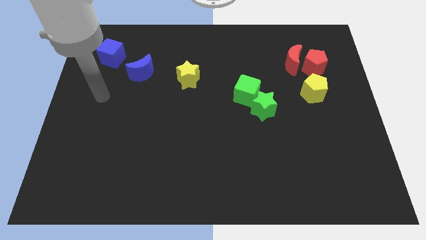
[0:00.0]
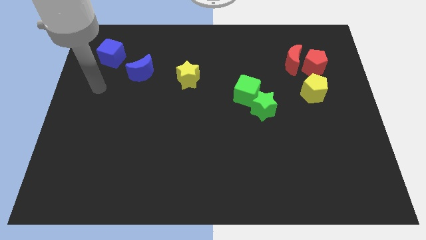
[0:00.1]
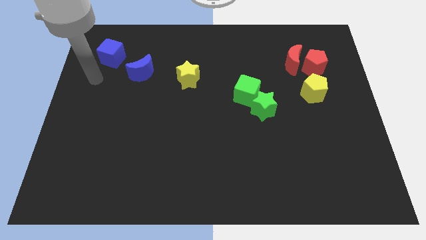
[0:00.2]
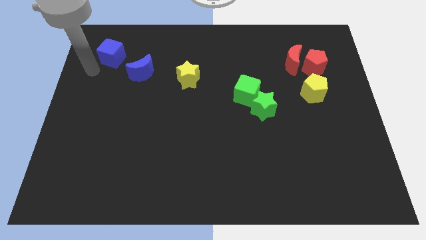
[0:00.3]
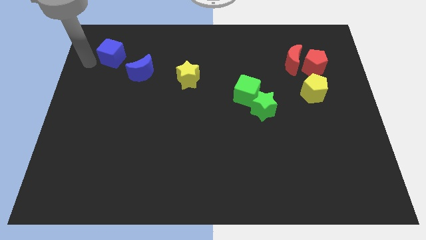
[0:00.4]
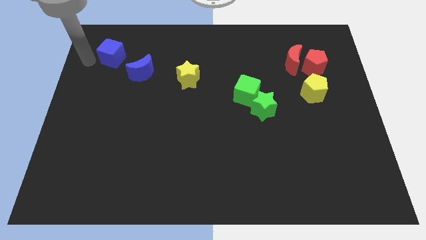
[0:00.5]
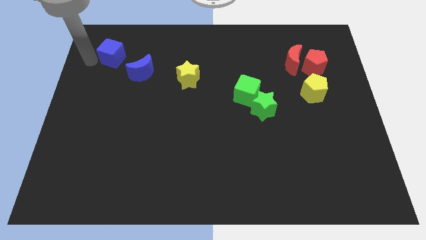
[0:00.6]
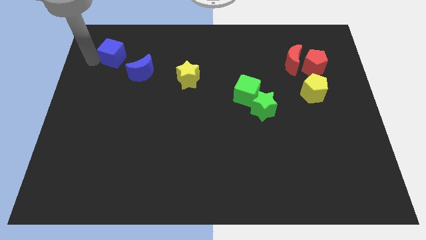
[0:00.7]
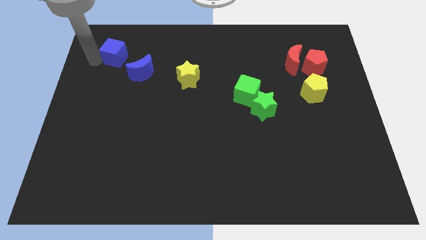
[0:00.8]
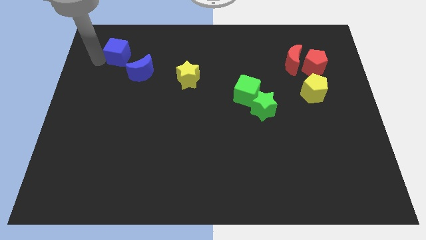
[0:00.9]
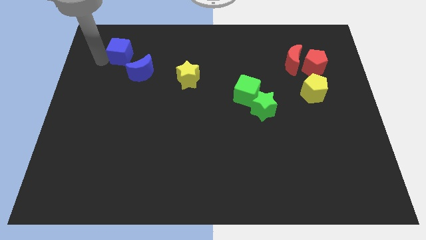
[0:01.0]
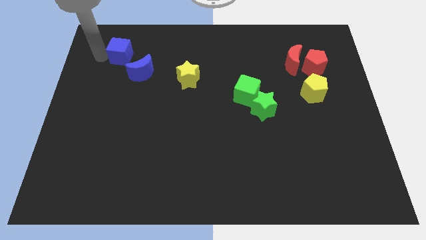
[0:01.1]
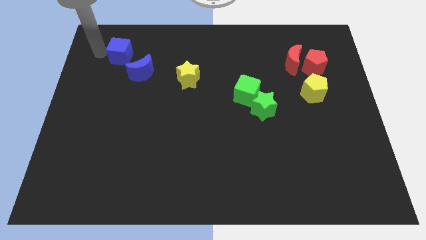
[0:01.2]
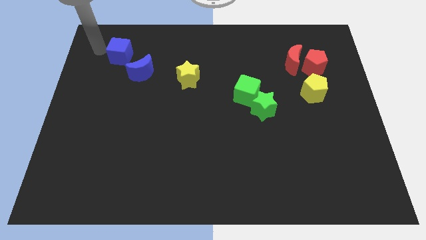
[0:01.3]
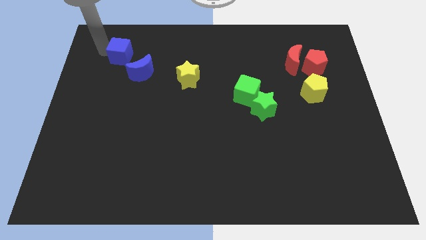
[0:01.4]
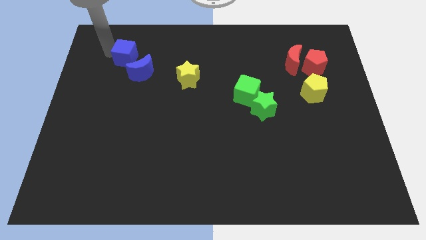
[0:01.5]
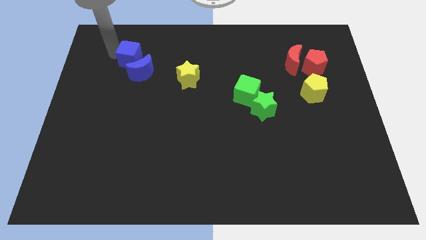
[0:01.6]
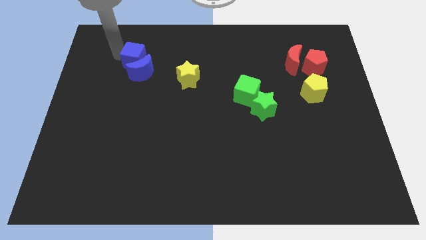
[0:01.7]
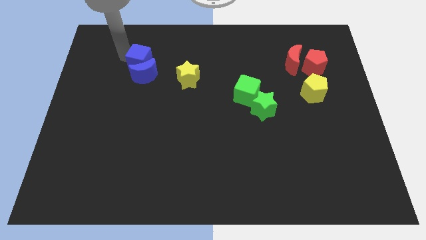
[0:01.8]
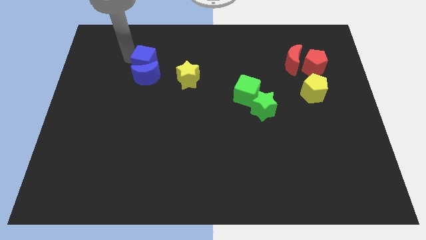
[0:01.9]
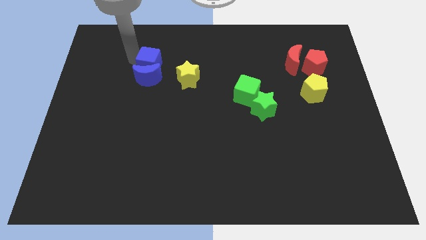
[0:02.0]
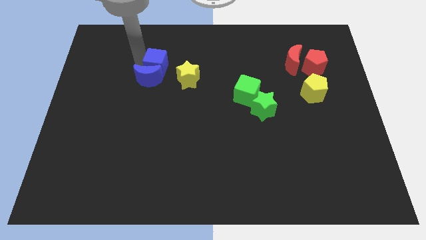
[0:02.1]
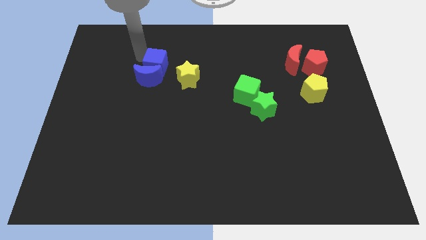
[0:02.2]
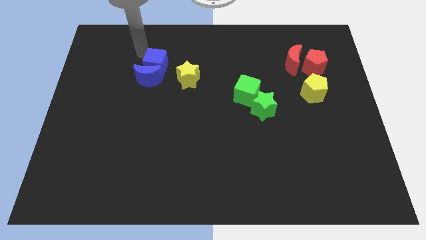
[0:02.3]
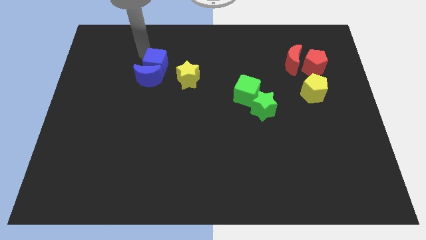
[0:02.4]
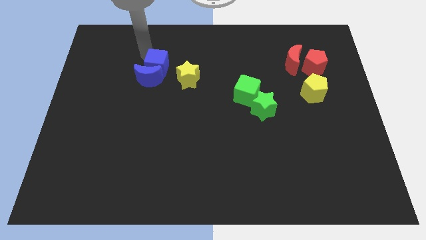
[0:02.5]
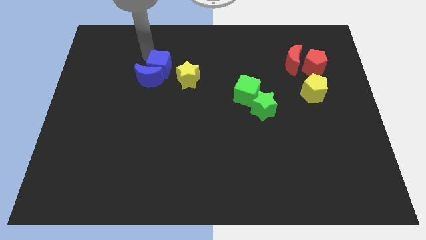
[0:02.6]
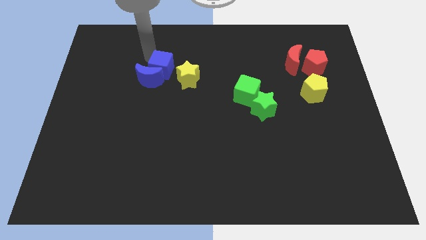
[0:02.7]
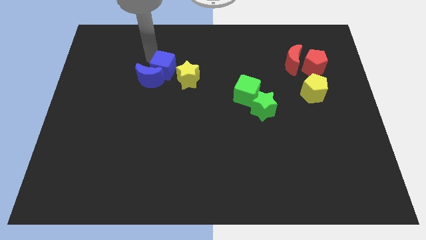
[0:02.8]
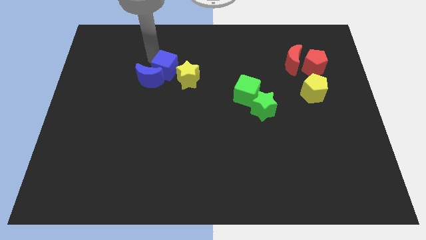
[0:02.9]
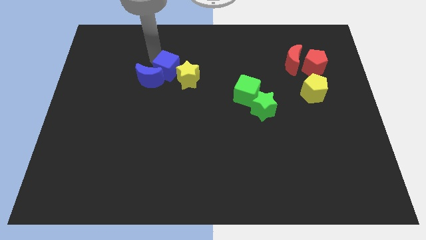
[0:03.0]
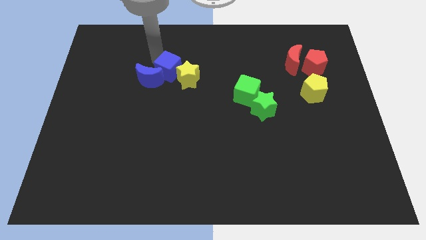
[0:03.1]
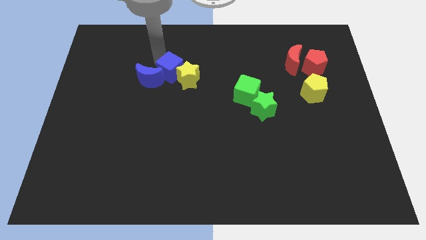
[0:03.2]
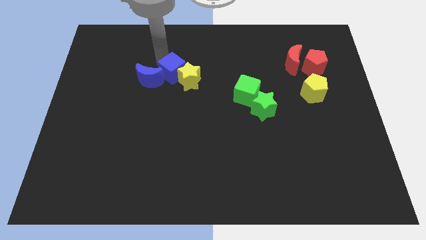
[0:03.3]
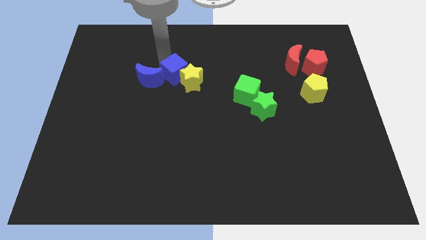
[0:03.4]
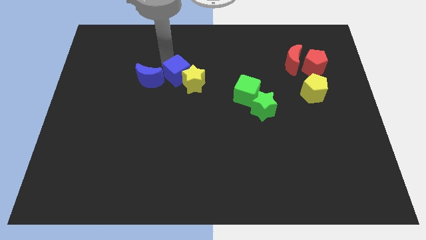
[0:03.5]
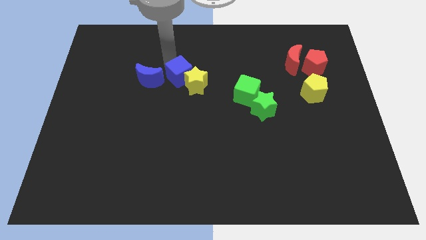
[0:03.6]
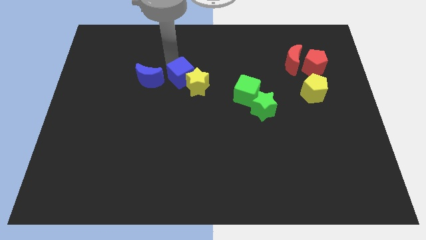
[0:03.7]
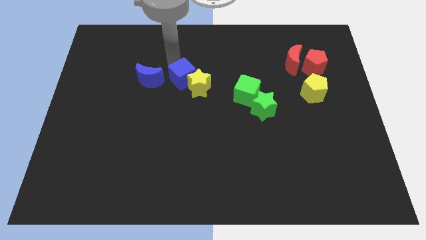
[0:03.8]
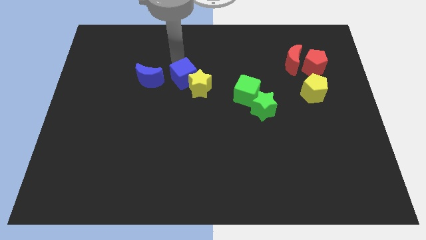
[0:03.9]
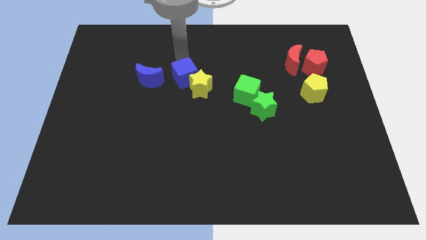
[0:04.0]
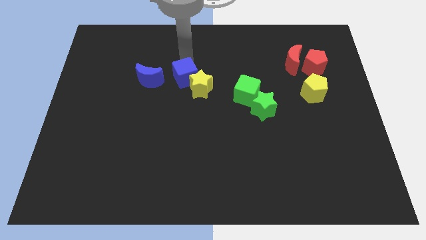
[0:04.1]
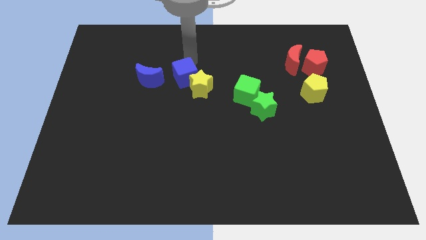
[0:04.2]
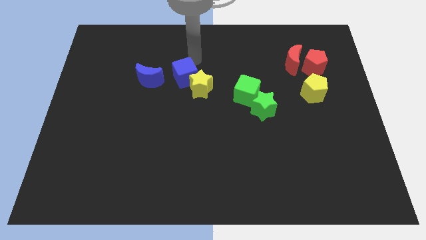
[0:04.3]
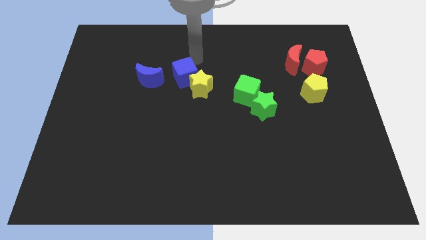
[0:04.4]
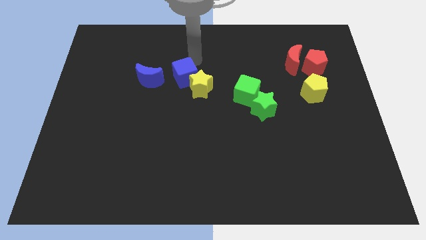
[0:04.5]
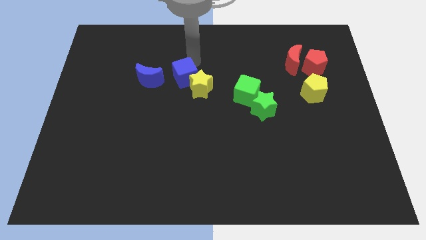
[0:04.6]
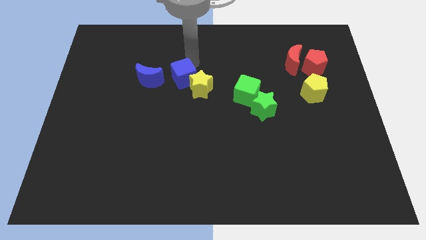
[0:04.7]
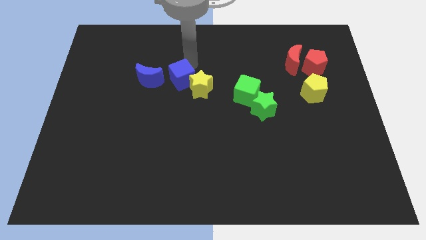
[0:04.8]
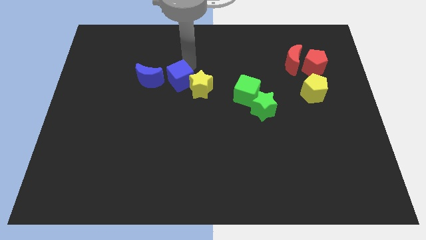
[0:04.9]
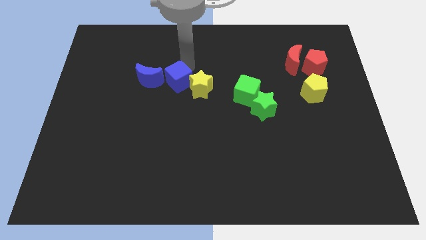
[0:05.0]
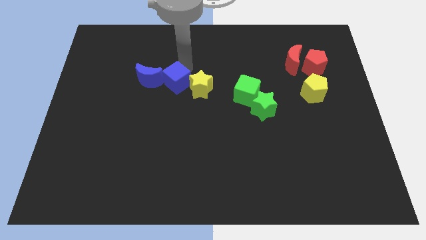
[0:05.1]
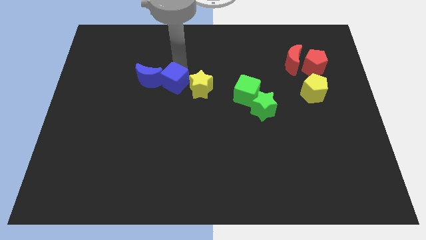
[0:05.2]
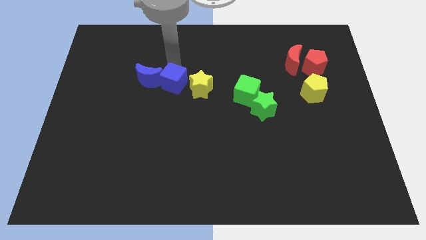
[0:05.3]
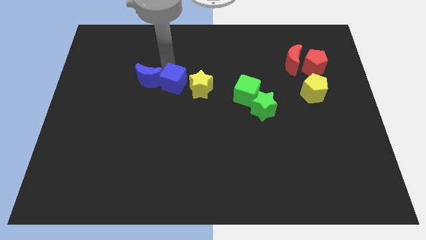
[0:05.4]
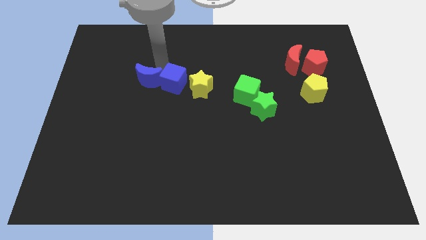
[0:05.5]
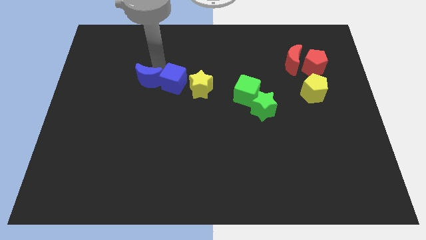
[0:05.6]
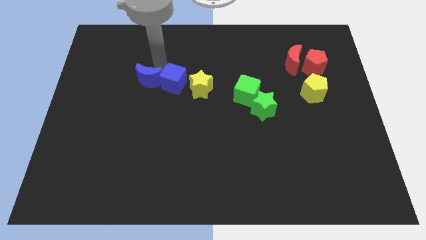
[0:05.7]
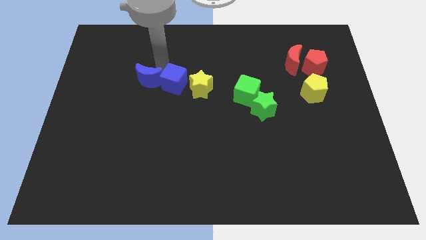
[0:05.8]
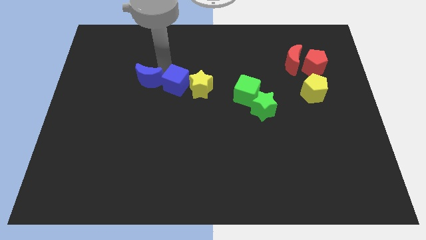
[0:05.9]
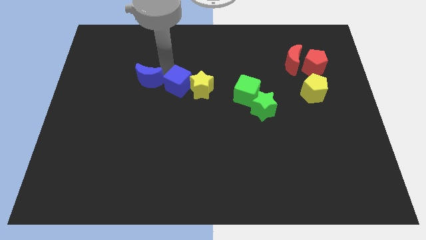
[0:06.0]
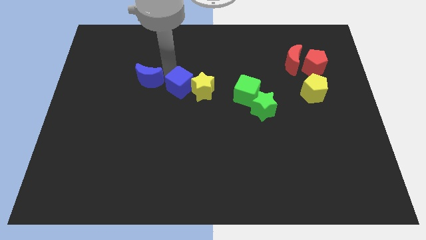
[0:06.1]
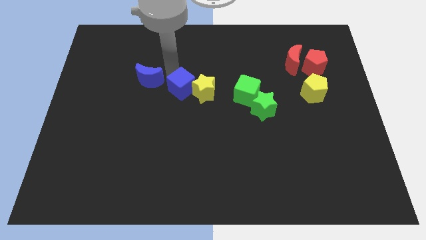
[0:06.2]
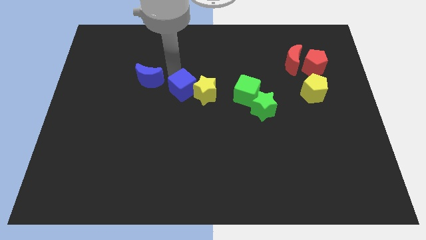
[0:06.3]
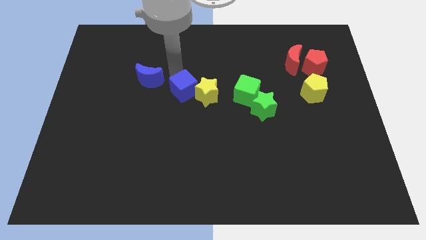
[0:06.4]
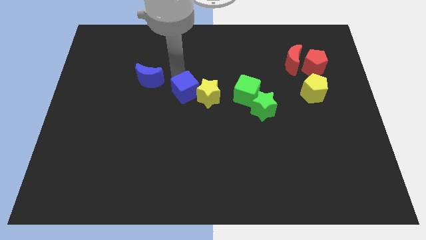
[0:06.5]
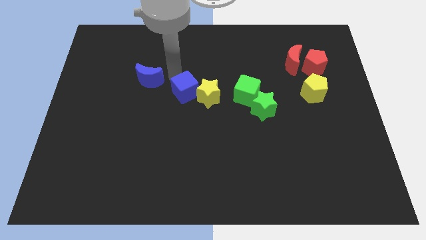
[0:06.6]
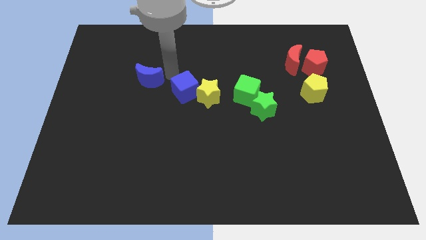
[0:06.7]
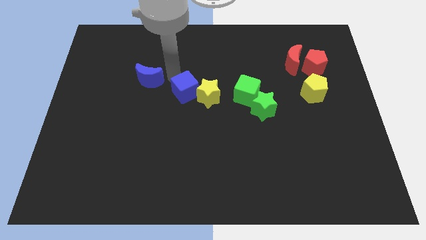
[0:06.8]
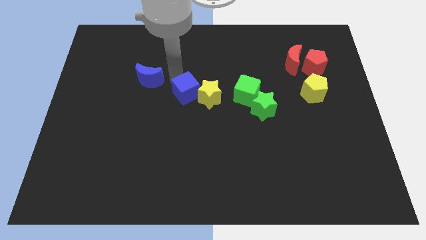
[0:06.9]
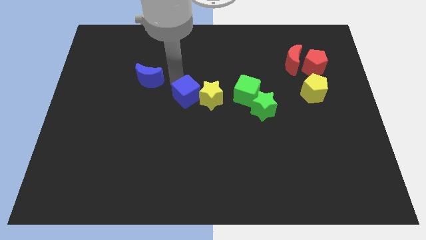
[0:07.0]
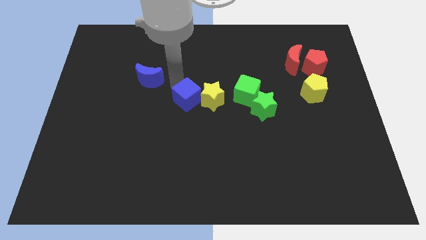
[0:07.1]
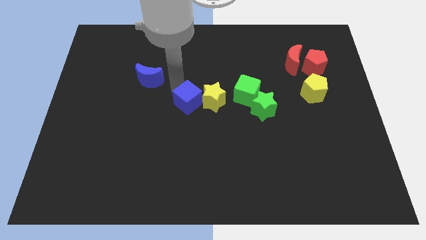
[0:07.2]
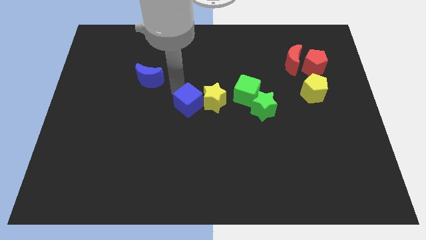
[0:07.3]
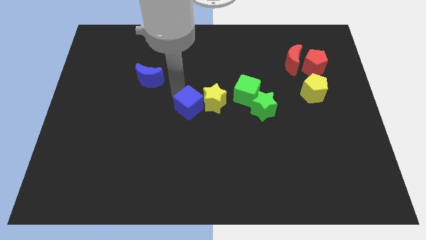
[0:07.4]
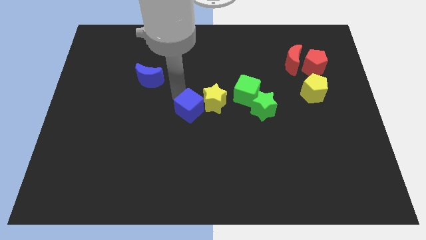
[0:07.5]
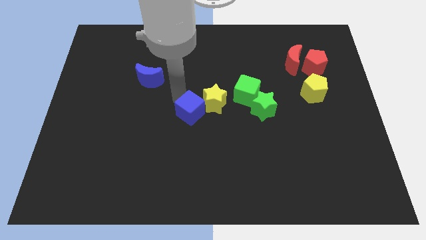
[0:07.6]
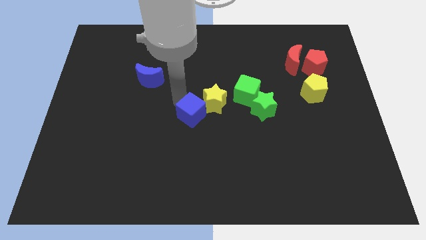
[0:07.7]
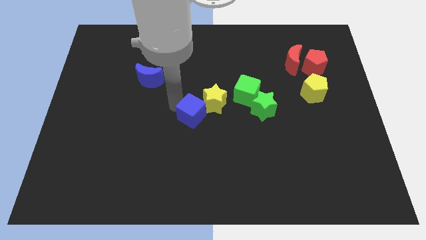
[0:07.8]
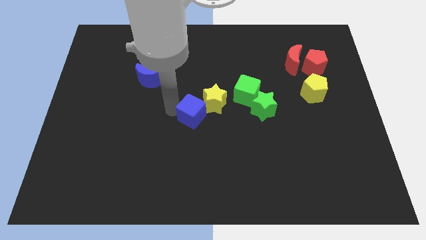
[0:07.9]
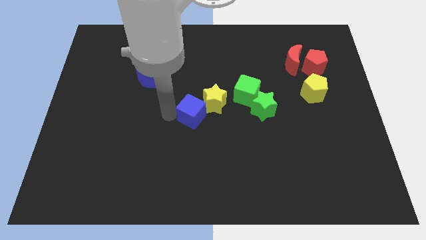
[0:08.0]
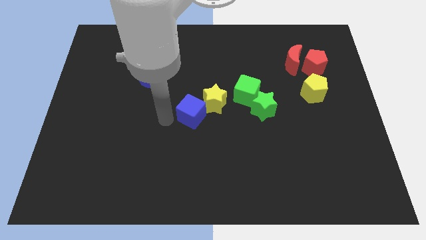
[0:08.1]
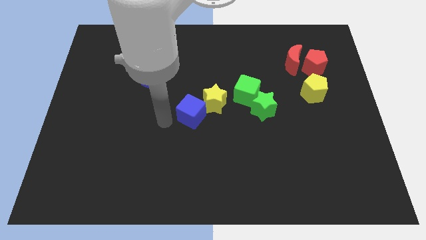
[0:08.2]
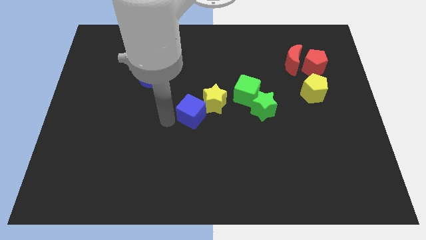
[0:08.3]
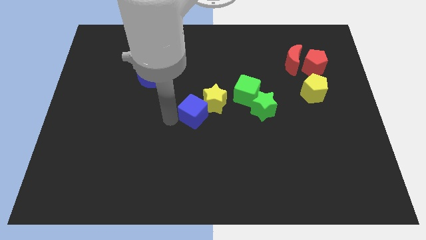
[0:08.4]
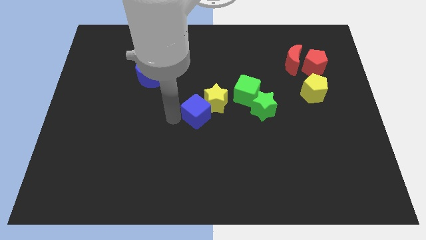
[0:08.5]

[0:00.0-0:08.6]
slide the blue cube to the left side of the green star
